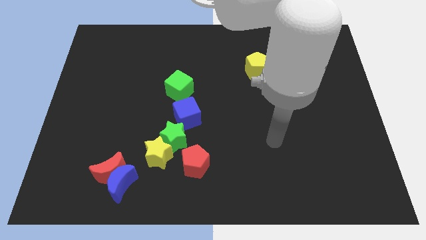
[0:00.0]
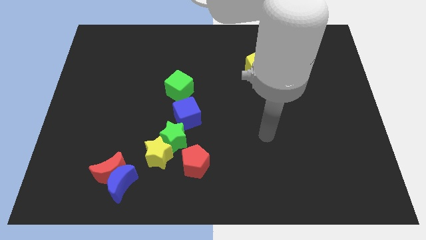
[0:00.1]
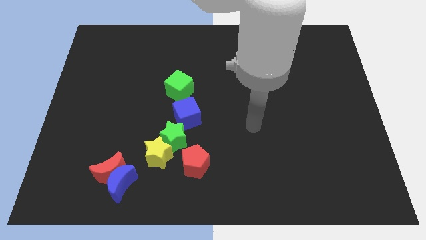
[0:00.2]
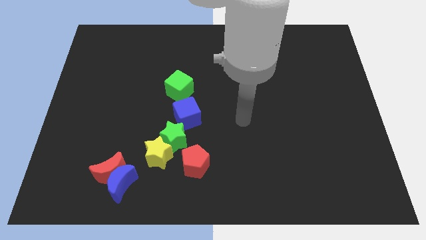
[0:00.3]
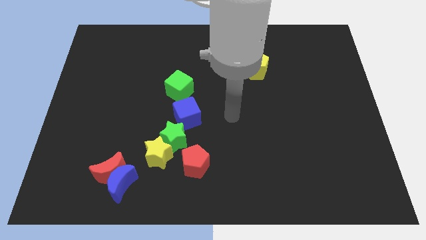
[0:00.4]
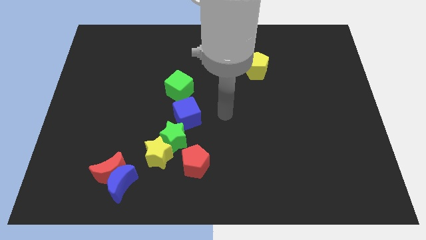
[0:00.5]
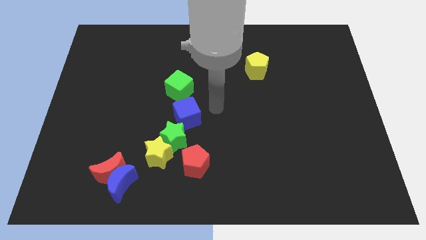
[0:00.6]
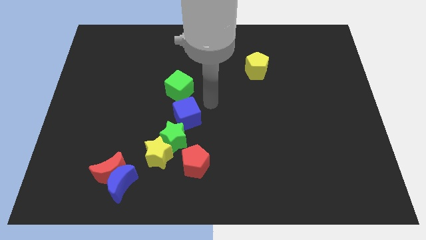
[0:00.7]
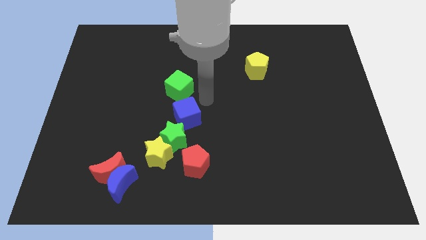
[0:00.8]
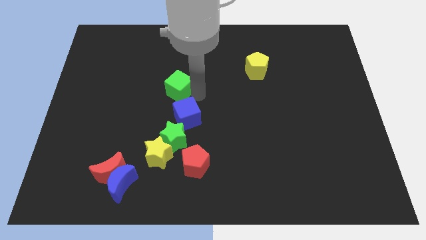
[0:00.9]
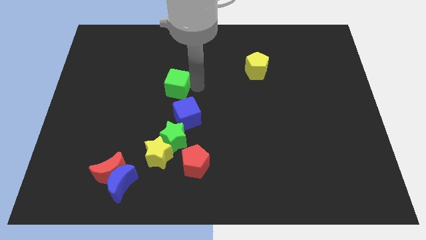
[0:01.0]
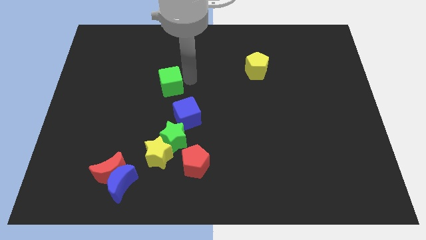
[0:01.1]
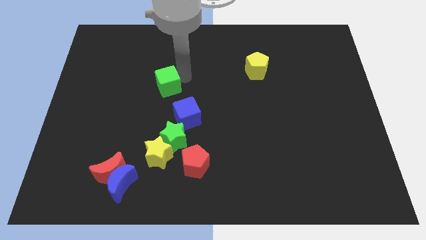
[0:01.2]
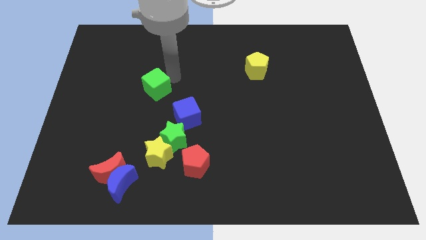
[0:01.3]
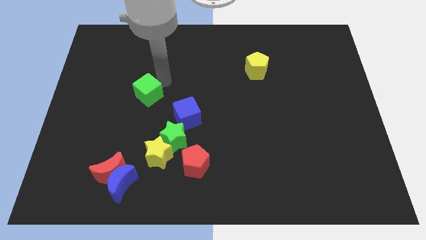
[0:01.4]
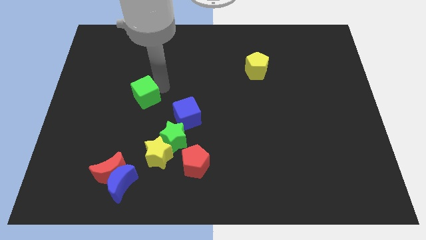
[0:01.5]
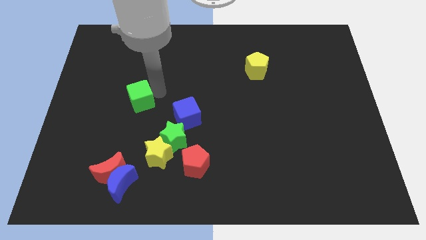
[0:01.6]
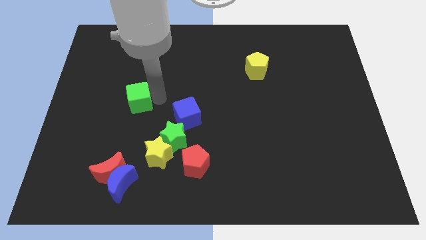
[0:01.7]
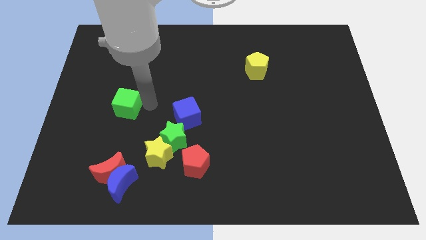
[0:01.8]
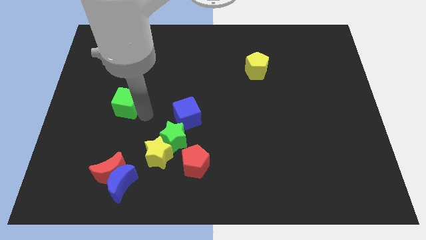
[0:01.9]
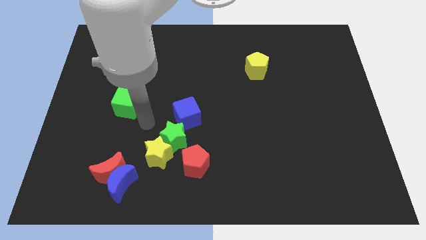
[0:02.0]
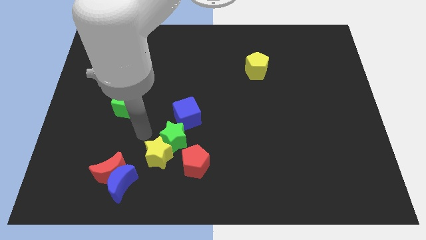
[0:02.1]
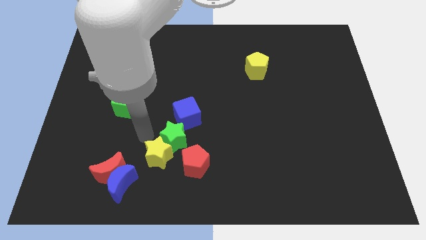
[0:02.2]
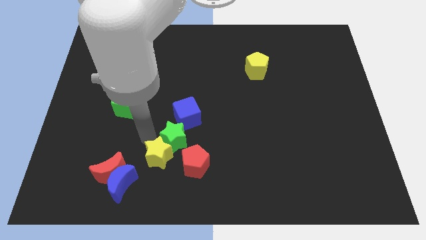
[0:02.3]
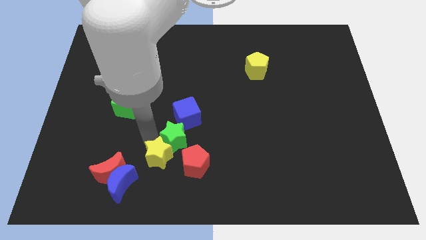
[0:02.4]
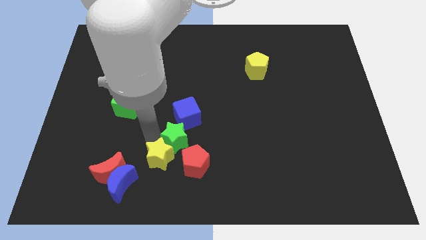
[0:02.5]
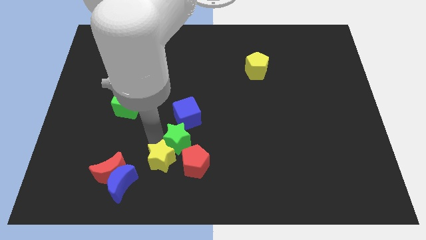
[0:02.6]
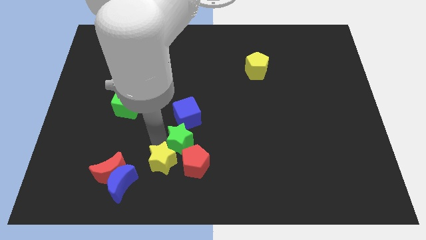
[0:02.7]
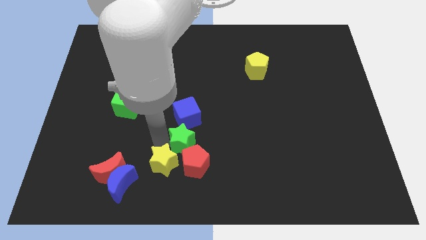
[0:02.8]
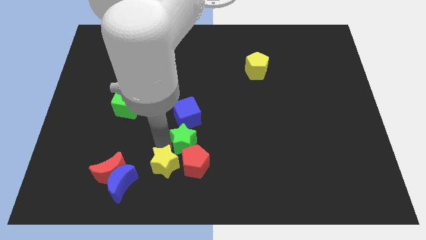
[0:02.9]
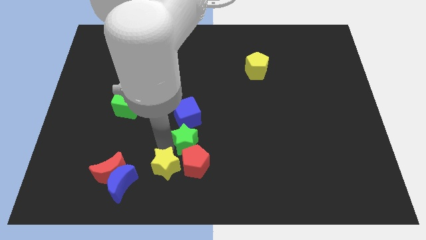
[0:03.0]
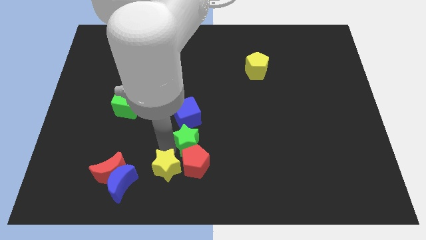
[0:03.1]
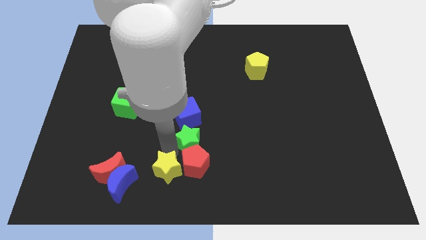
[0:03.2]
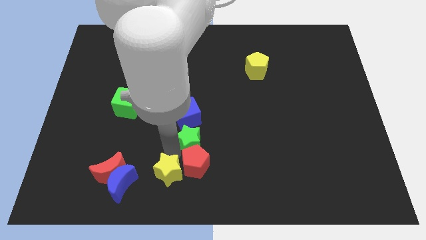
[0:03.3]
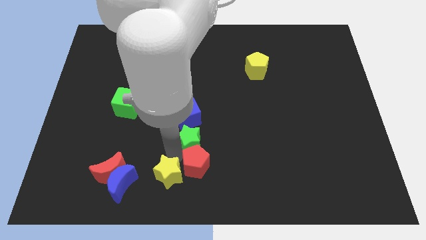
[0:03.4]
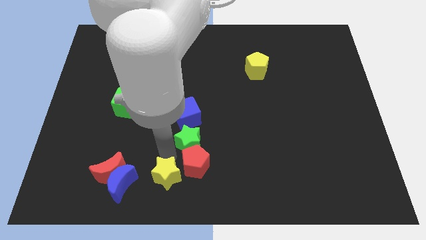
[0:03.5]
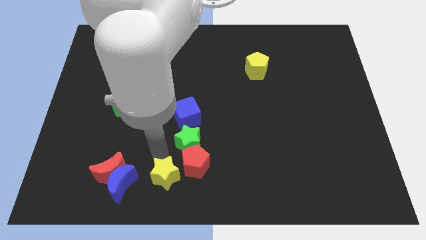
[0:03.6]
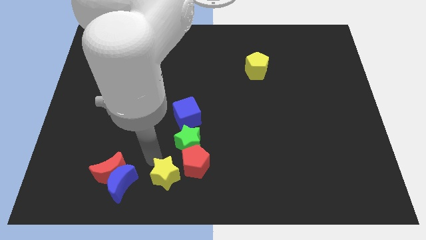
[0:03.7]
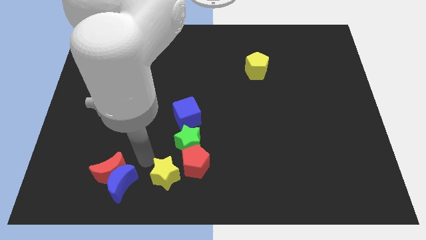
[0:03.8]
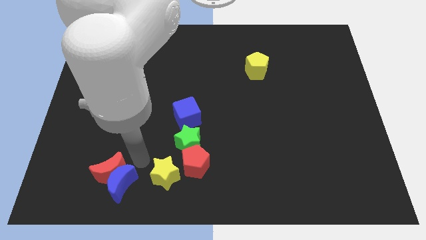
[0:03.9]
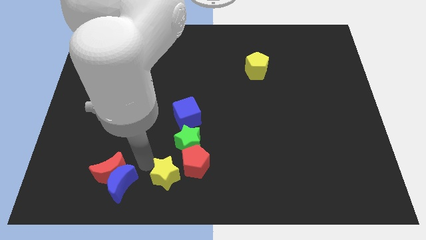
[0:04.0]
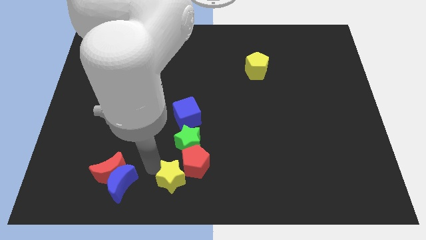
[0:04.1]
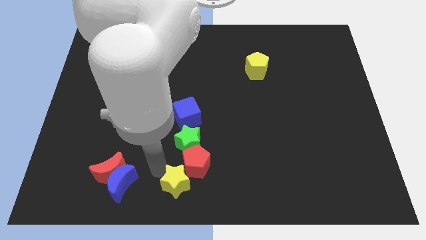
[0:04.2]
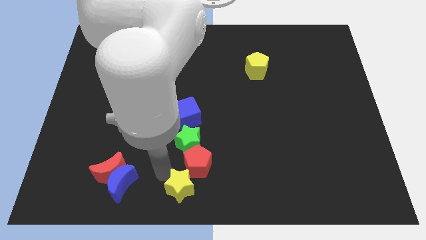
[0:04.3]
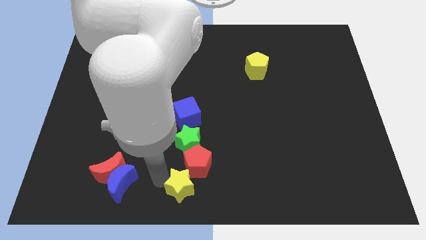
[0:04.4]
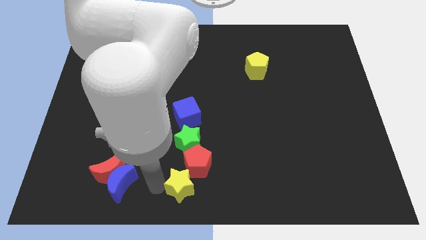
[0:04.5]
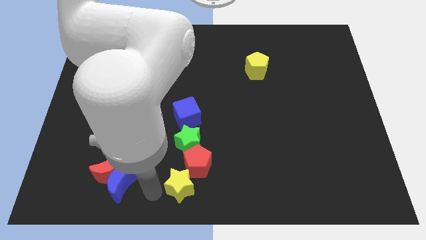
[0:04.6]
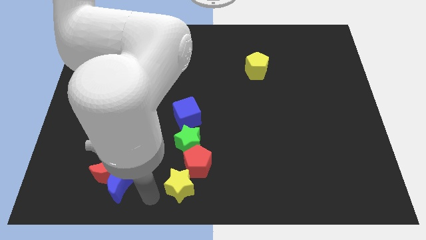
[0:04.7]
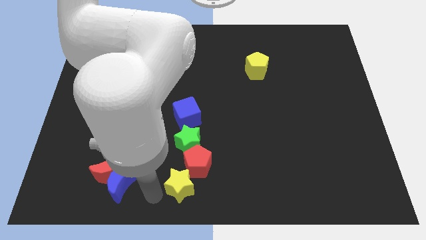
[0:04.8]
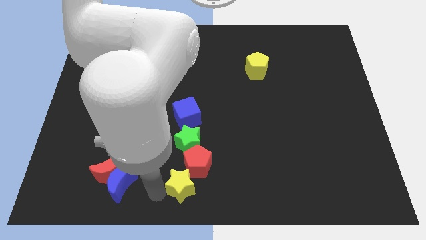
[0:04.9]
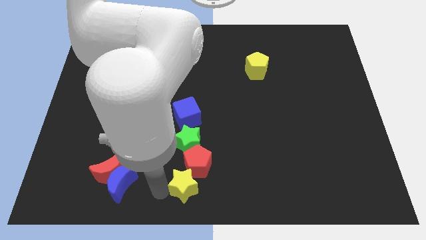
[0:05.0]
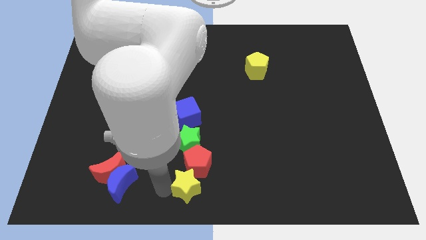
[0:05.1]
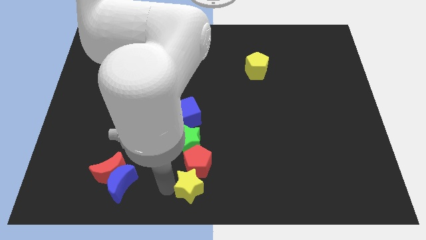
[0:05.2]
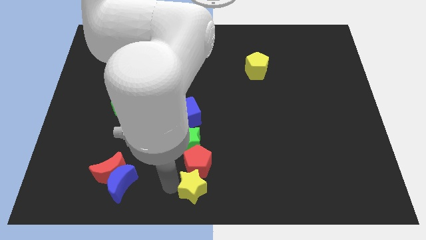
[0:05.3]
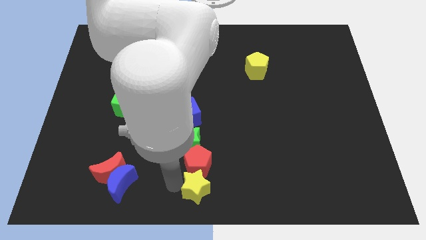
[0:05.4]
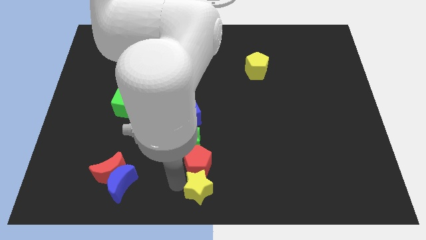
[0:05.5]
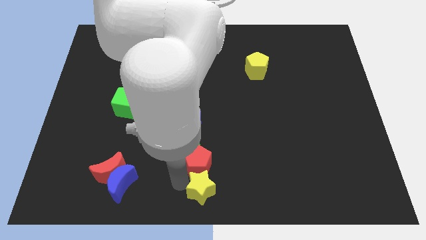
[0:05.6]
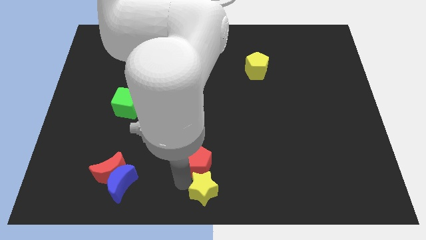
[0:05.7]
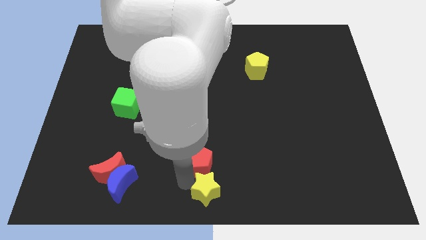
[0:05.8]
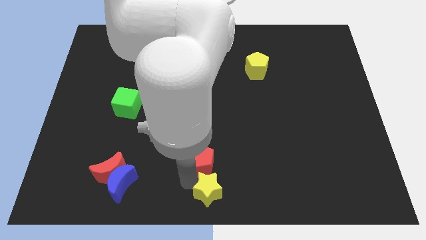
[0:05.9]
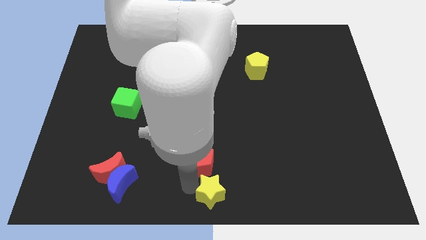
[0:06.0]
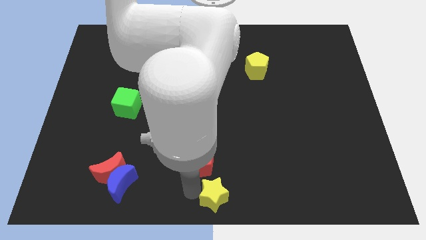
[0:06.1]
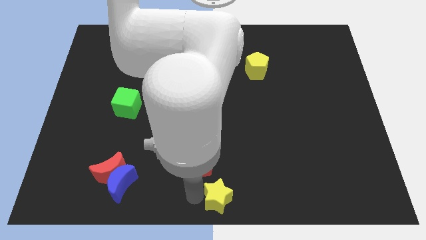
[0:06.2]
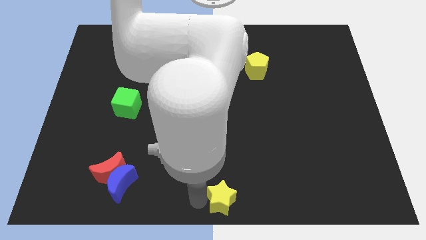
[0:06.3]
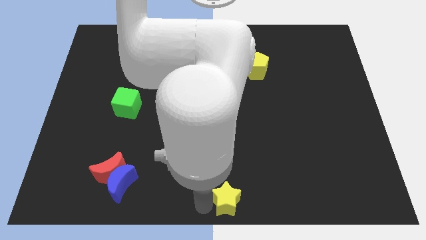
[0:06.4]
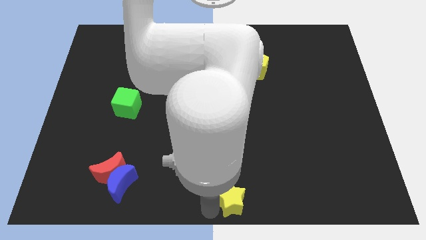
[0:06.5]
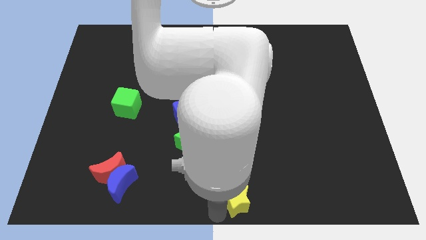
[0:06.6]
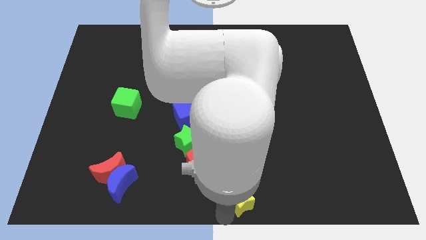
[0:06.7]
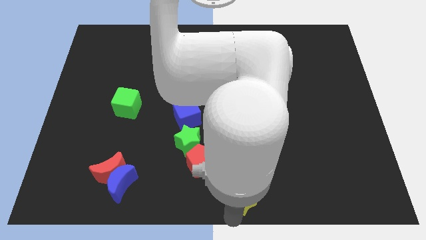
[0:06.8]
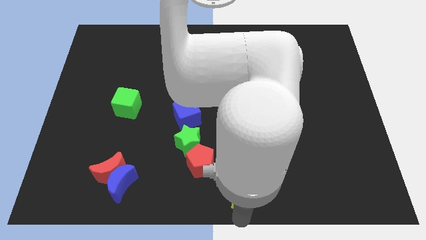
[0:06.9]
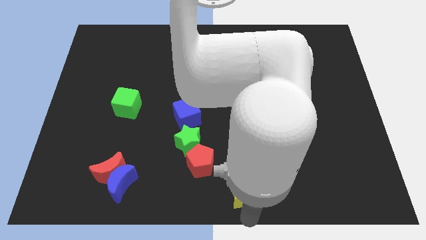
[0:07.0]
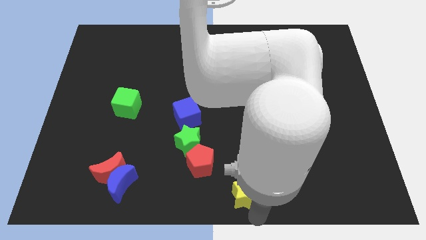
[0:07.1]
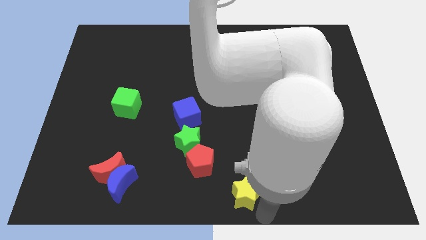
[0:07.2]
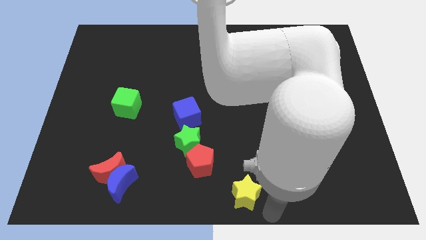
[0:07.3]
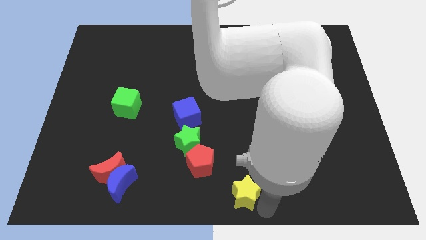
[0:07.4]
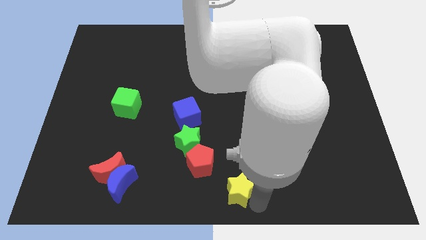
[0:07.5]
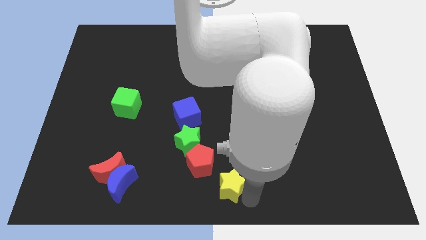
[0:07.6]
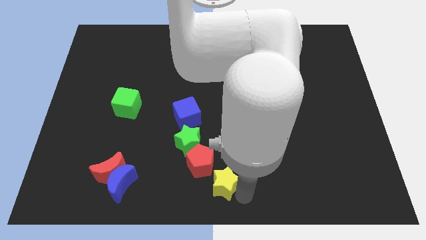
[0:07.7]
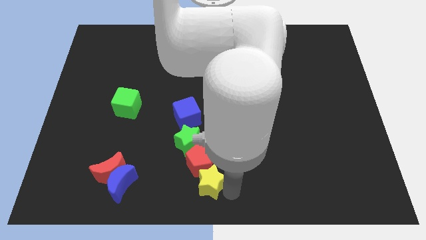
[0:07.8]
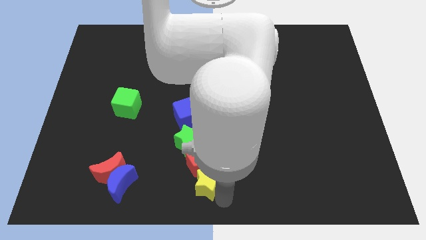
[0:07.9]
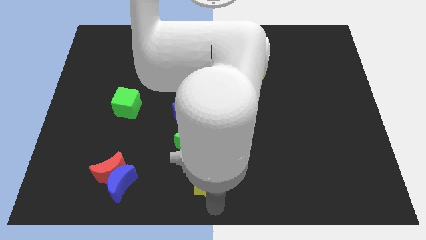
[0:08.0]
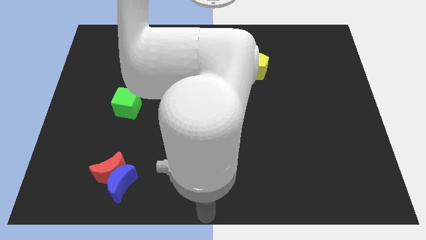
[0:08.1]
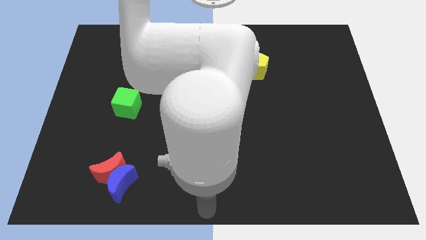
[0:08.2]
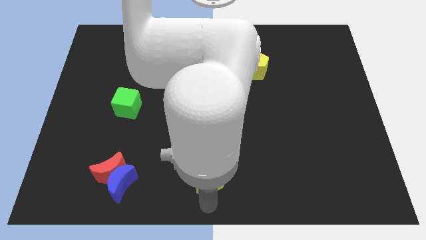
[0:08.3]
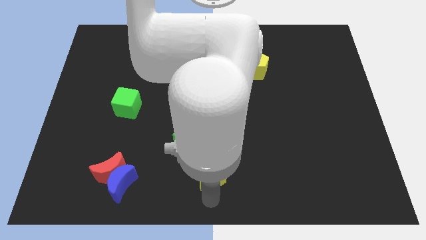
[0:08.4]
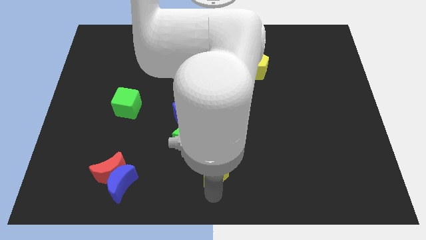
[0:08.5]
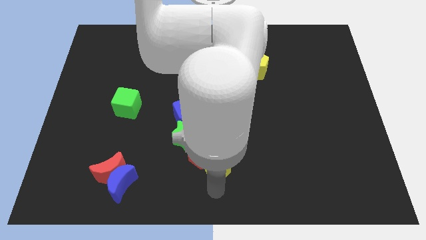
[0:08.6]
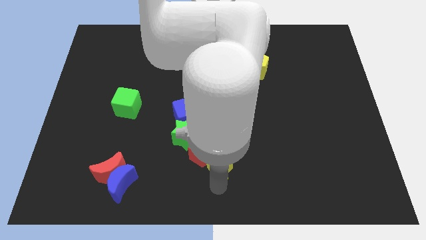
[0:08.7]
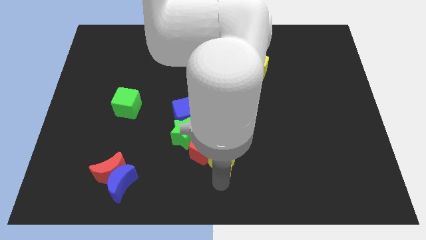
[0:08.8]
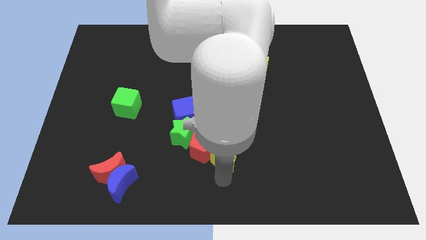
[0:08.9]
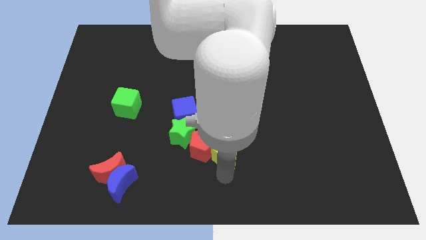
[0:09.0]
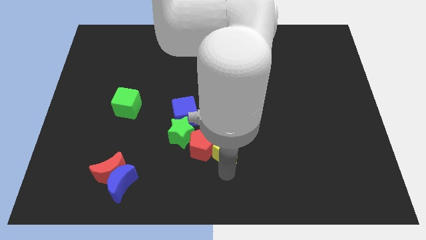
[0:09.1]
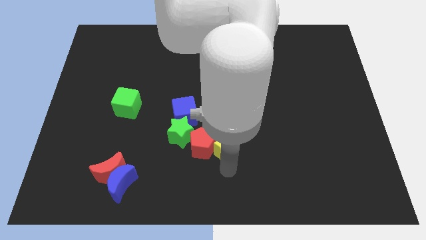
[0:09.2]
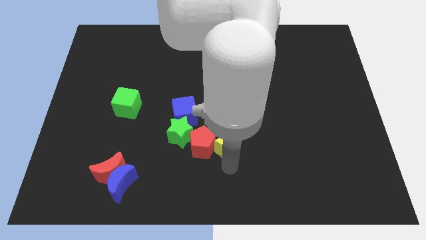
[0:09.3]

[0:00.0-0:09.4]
move the yellow star to the bottom right of the blue cube
